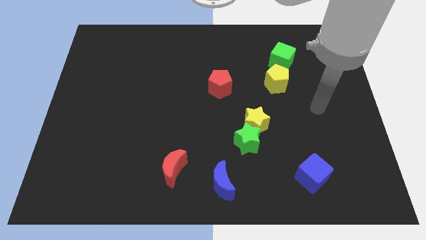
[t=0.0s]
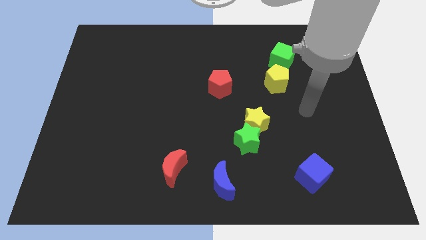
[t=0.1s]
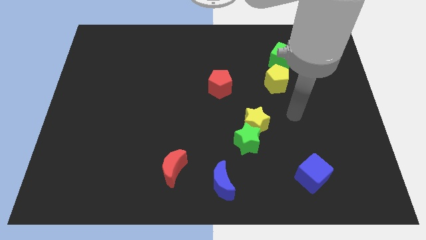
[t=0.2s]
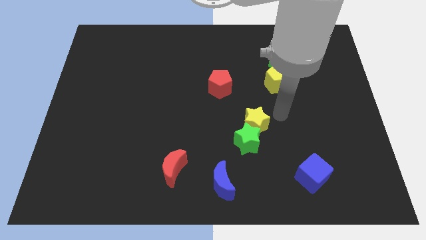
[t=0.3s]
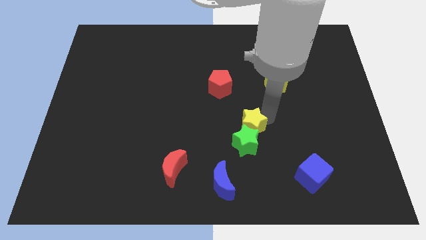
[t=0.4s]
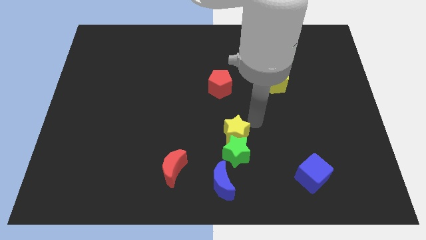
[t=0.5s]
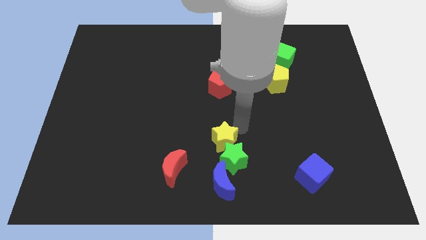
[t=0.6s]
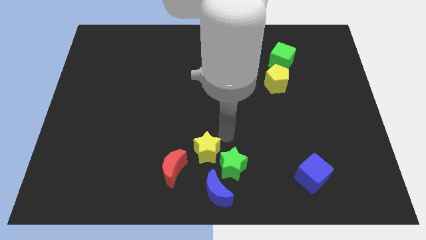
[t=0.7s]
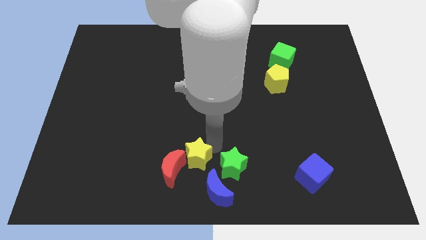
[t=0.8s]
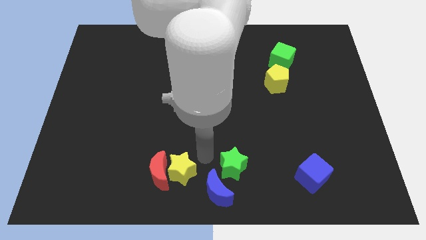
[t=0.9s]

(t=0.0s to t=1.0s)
pull the green star apart from the yellow star

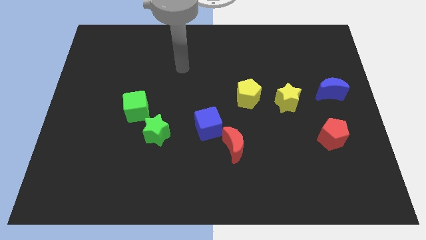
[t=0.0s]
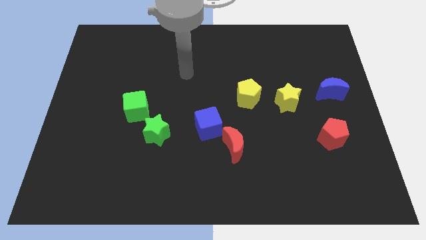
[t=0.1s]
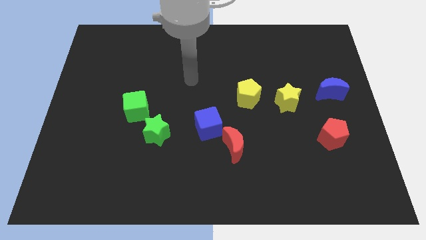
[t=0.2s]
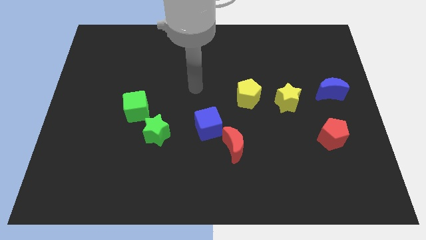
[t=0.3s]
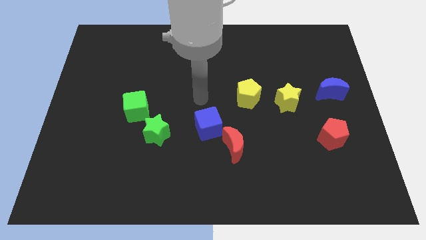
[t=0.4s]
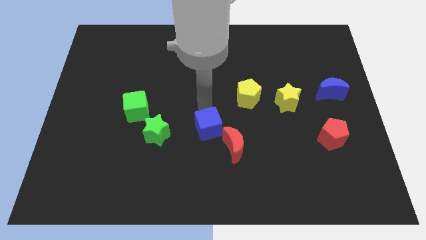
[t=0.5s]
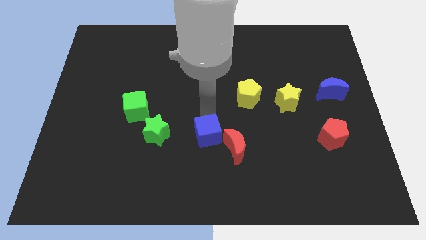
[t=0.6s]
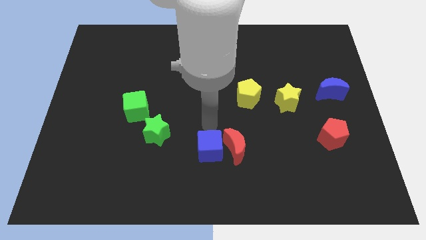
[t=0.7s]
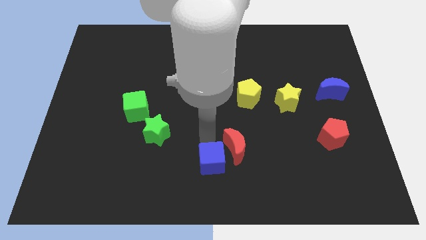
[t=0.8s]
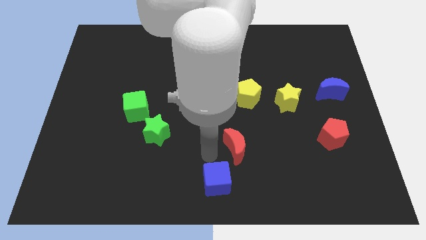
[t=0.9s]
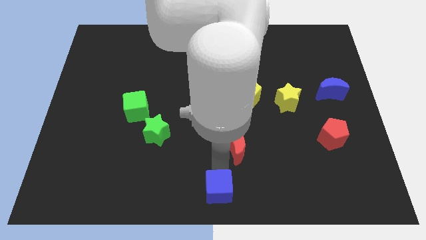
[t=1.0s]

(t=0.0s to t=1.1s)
move the red moon away from the blue cube

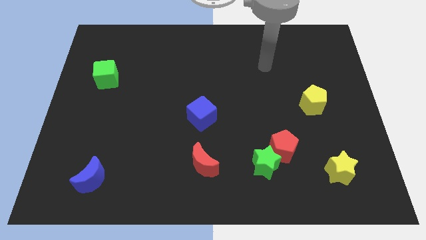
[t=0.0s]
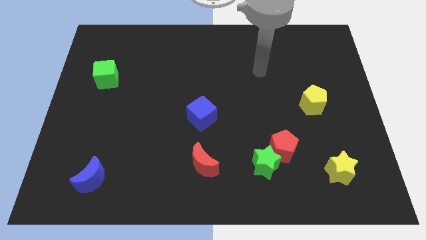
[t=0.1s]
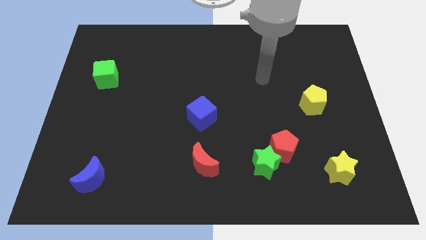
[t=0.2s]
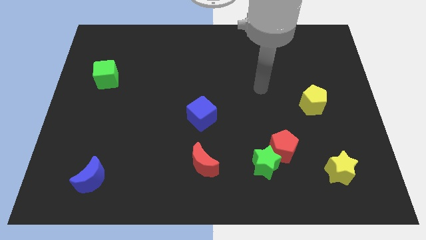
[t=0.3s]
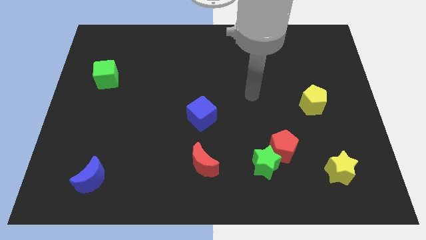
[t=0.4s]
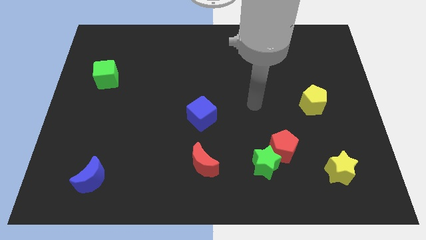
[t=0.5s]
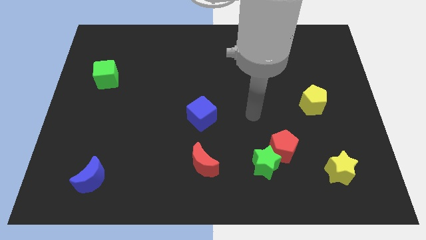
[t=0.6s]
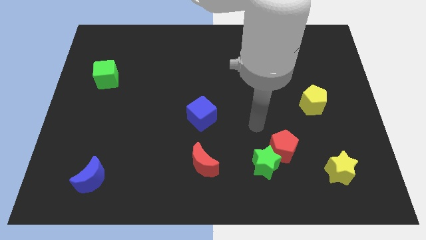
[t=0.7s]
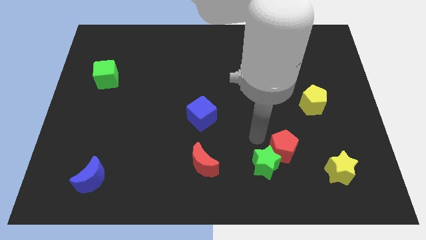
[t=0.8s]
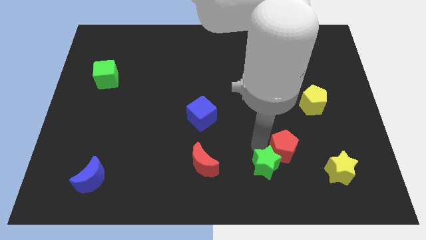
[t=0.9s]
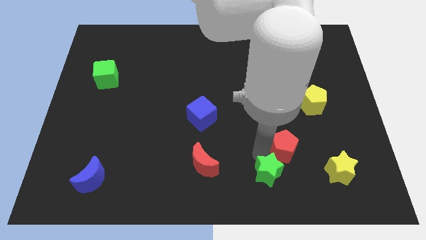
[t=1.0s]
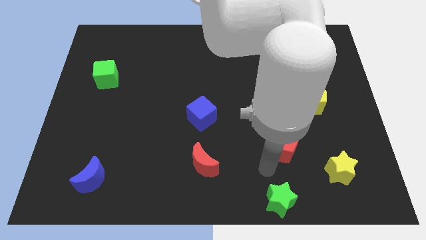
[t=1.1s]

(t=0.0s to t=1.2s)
separate the red pentagon from the green star

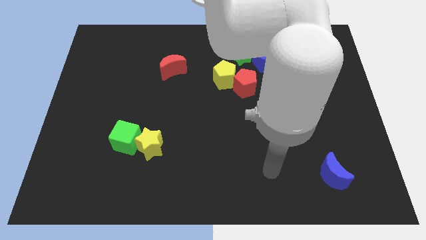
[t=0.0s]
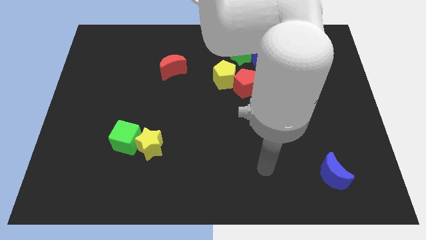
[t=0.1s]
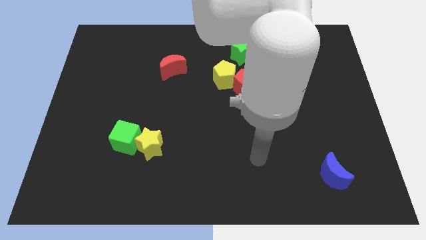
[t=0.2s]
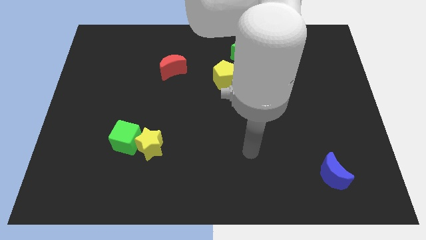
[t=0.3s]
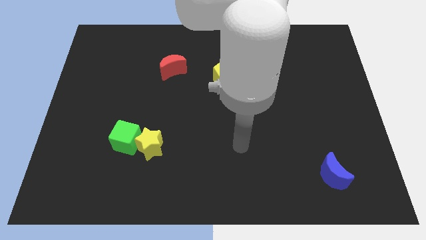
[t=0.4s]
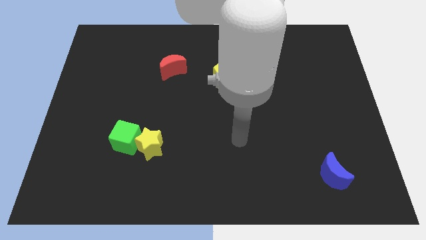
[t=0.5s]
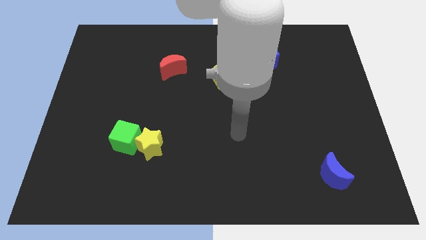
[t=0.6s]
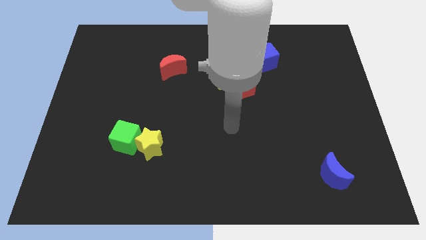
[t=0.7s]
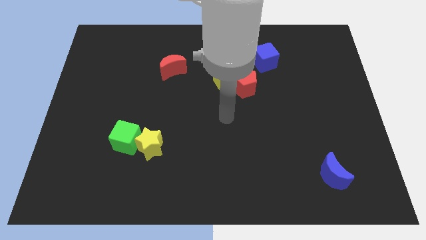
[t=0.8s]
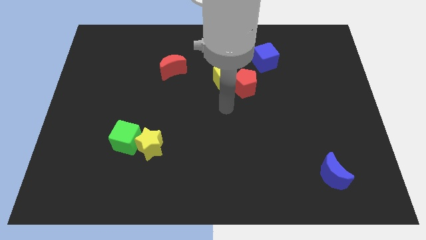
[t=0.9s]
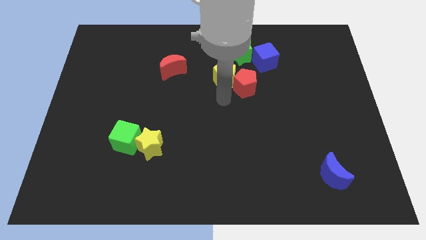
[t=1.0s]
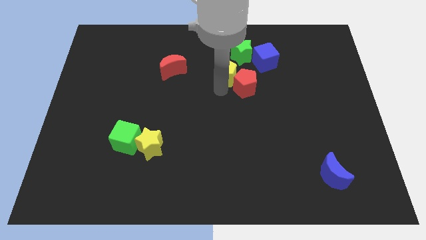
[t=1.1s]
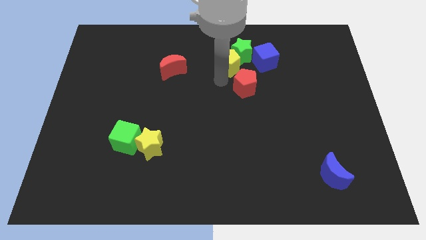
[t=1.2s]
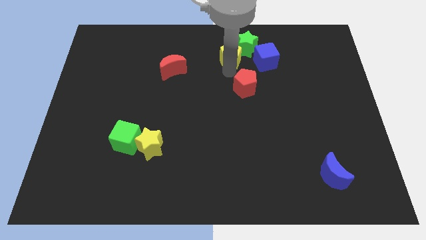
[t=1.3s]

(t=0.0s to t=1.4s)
separate the red pentagon from the yellow pentagon

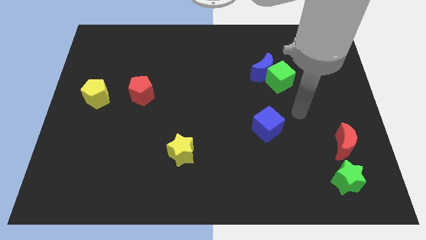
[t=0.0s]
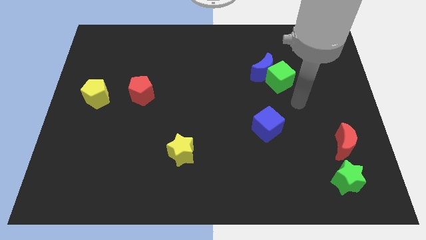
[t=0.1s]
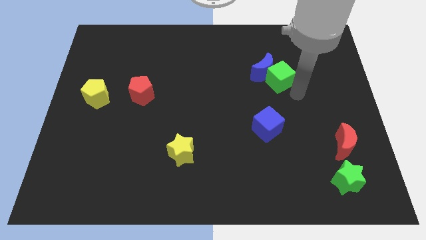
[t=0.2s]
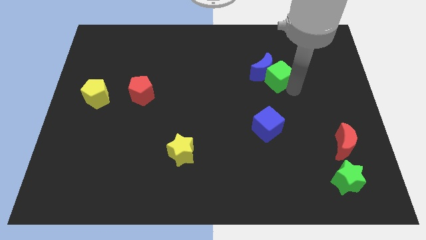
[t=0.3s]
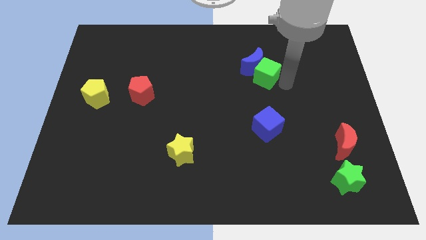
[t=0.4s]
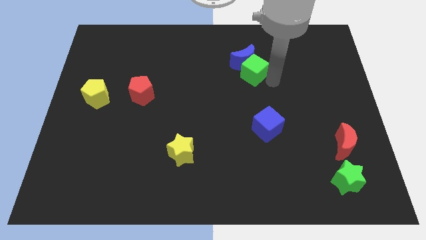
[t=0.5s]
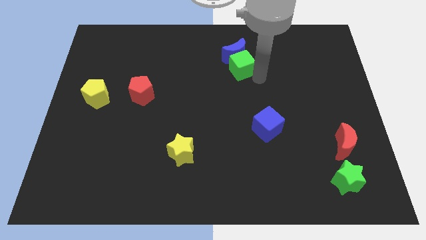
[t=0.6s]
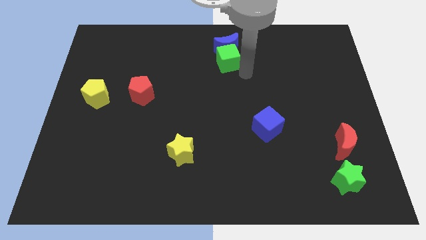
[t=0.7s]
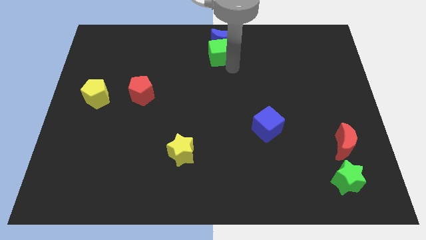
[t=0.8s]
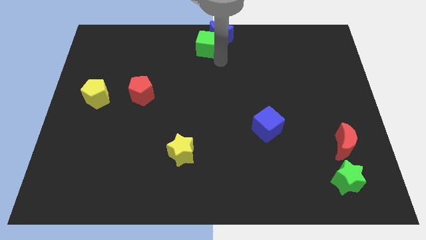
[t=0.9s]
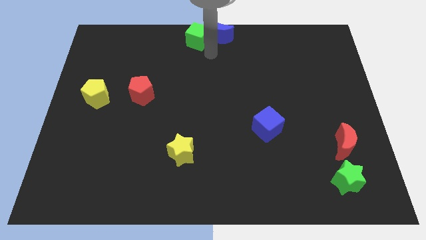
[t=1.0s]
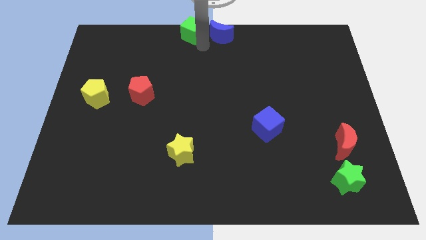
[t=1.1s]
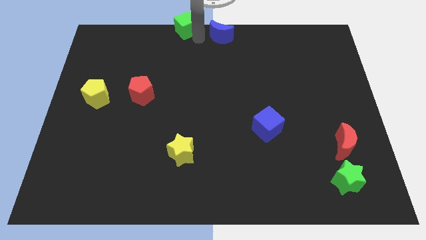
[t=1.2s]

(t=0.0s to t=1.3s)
separate the blue moon from the green cube

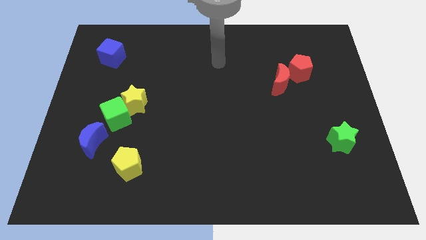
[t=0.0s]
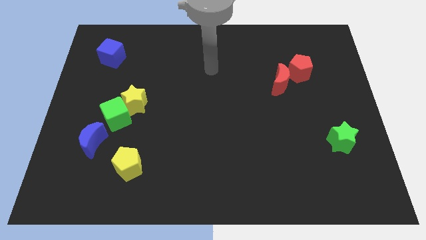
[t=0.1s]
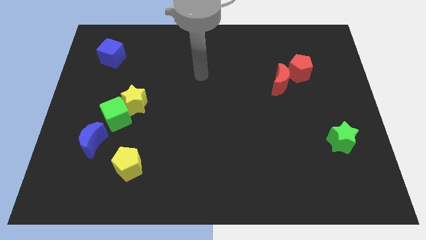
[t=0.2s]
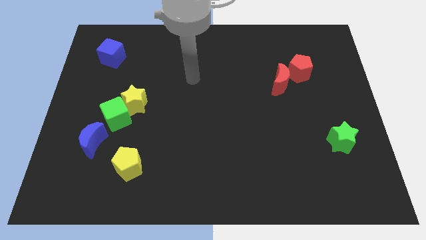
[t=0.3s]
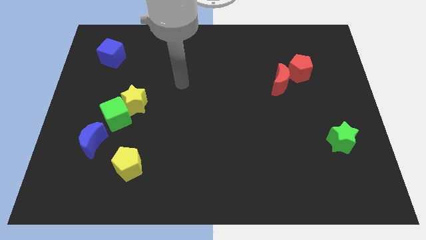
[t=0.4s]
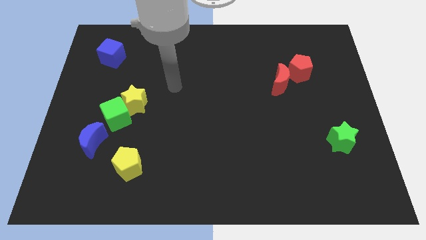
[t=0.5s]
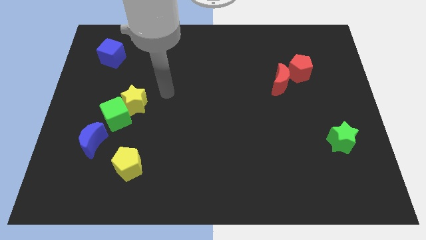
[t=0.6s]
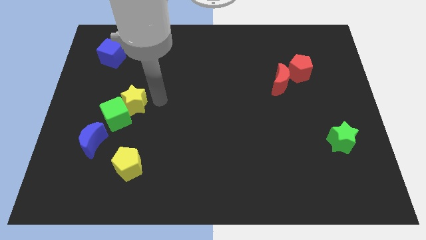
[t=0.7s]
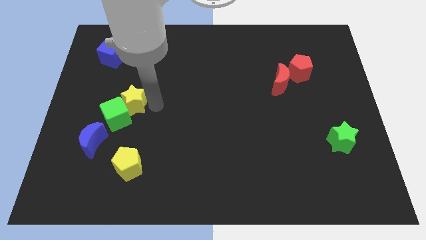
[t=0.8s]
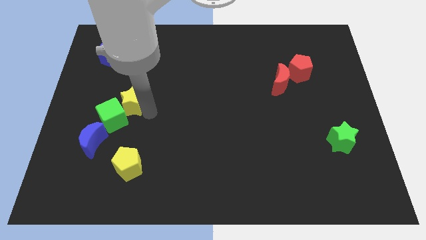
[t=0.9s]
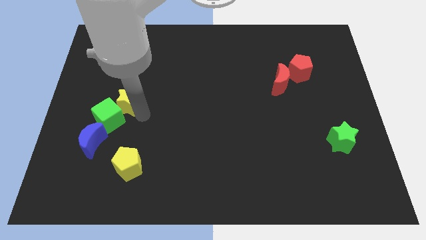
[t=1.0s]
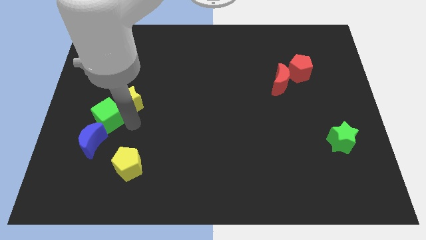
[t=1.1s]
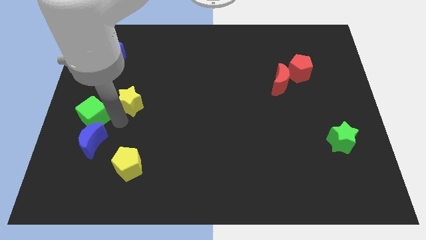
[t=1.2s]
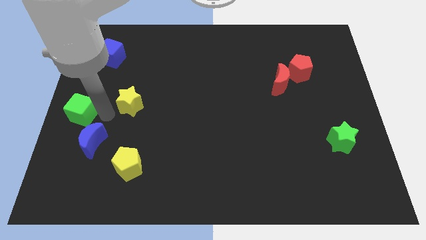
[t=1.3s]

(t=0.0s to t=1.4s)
pull the yellow star apart from the green cube

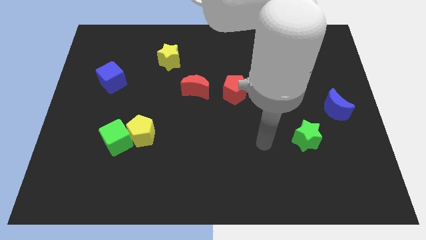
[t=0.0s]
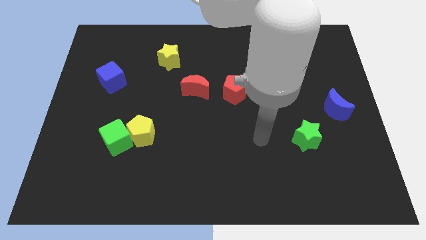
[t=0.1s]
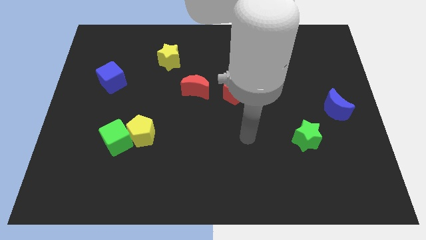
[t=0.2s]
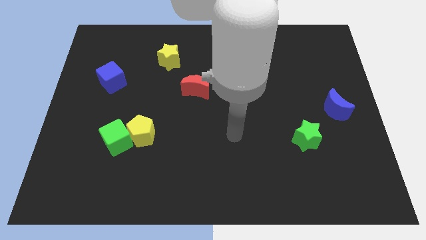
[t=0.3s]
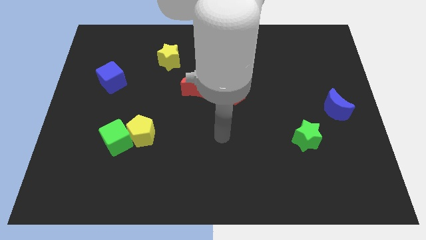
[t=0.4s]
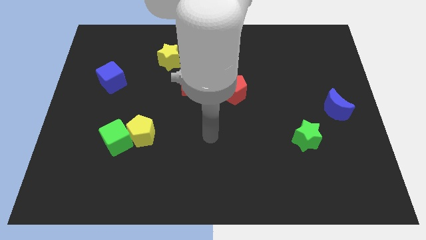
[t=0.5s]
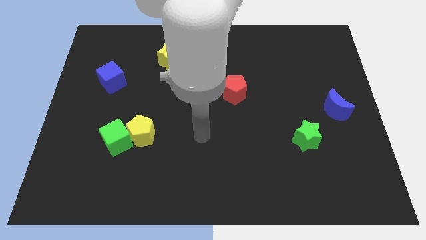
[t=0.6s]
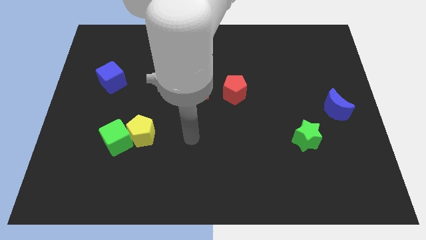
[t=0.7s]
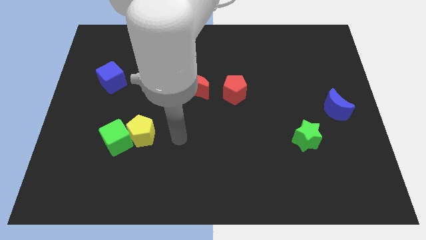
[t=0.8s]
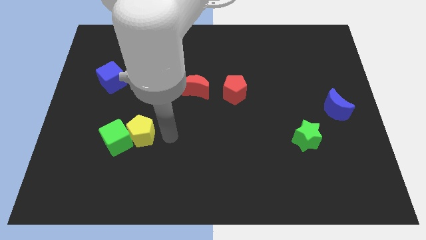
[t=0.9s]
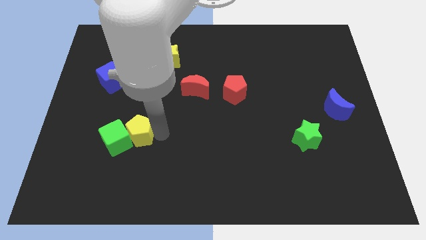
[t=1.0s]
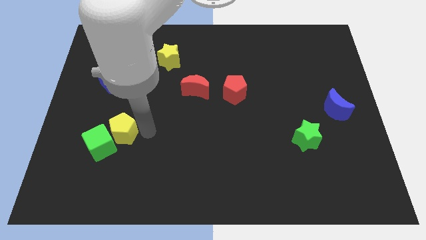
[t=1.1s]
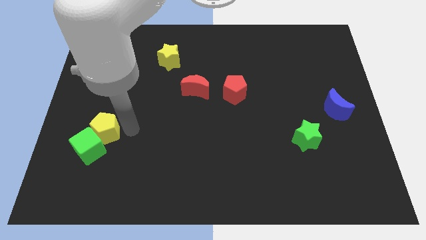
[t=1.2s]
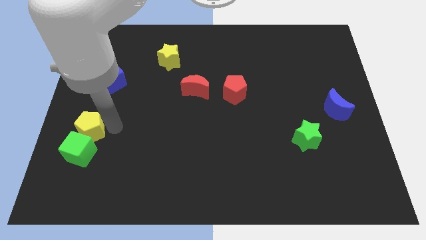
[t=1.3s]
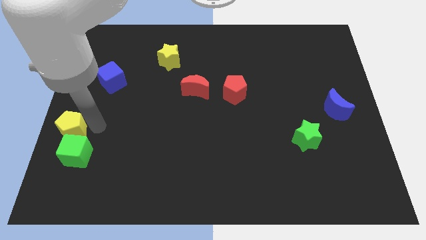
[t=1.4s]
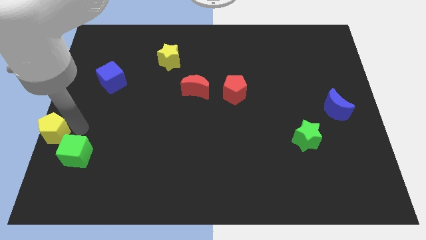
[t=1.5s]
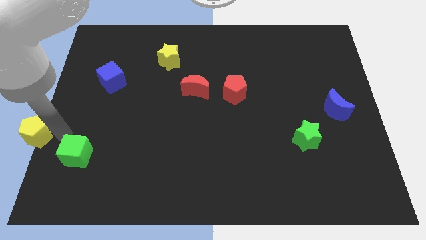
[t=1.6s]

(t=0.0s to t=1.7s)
pull the green cube apart from the yellow pentagon

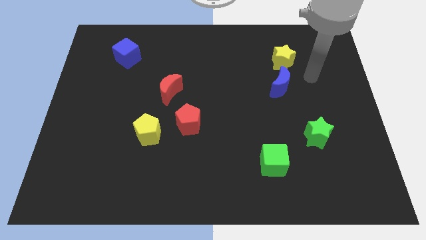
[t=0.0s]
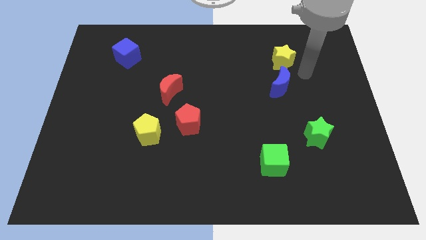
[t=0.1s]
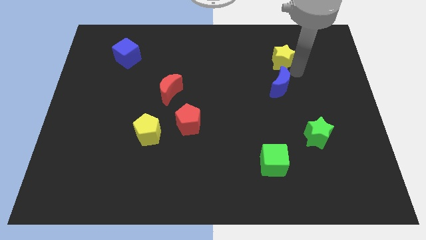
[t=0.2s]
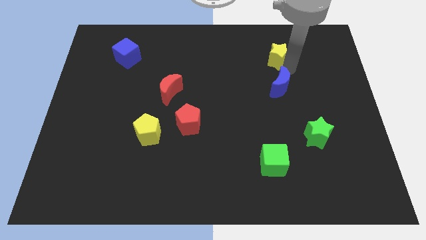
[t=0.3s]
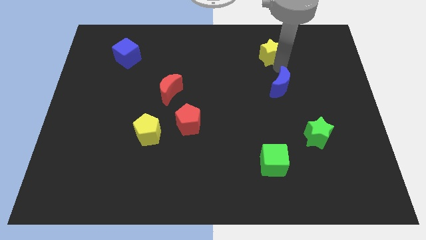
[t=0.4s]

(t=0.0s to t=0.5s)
pull the blue moon apart from the yellow star
